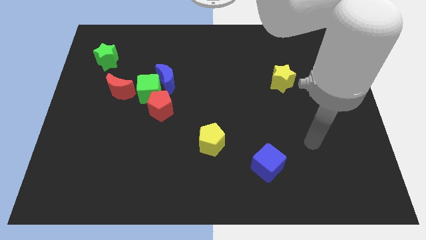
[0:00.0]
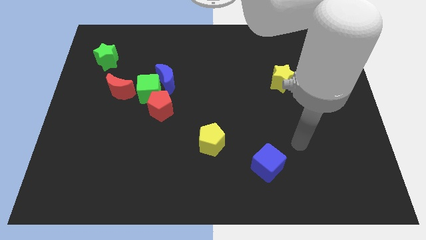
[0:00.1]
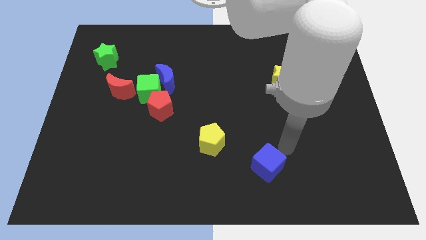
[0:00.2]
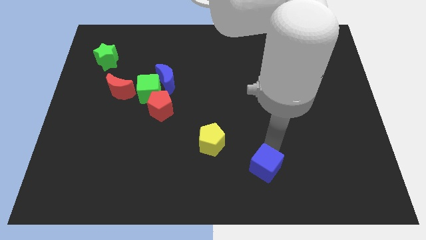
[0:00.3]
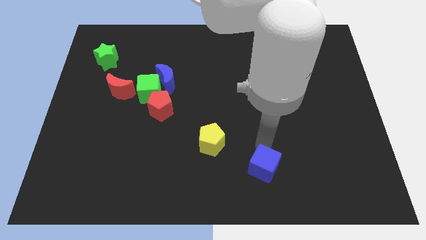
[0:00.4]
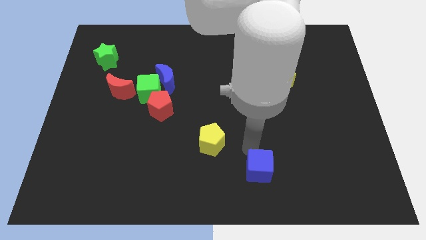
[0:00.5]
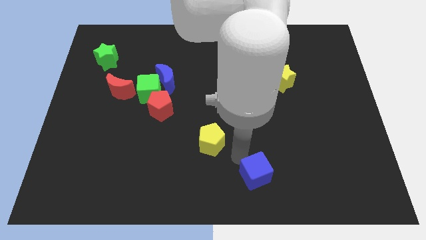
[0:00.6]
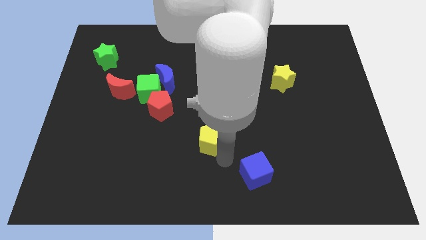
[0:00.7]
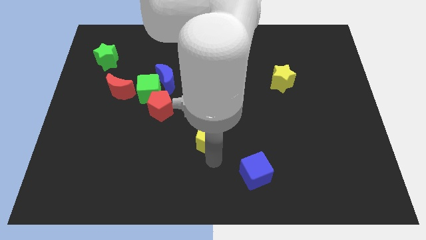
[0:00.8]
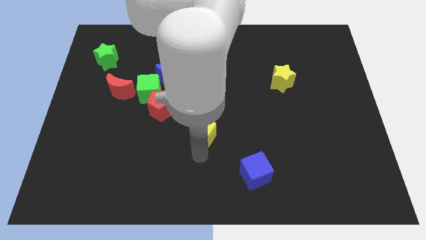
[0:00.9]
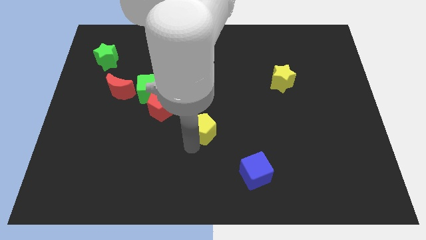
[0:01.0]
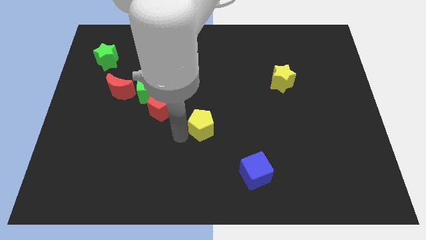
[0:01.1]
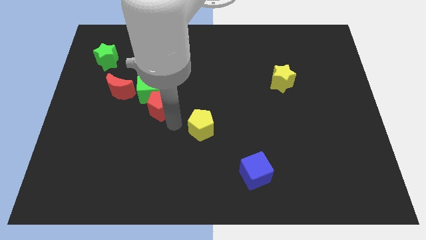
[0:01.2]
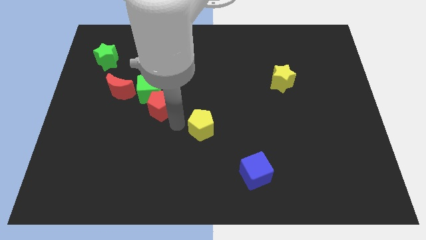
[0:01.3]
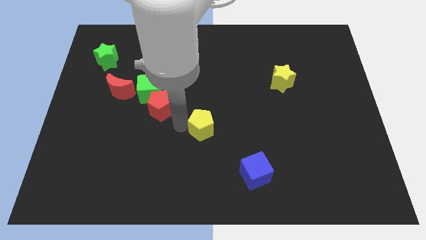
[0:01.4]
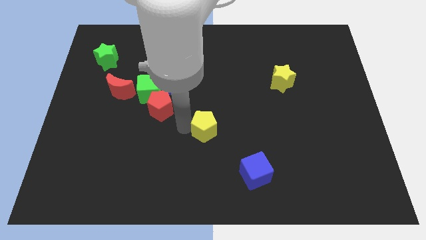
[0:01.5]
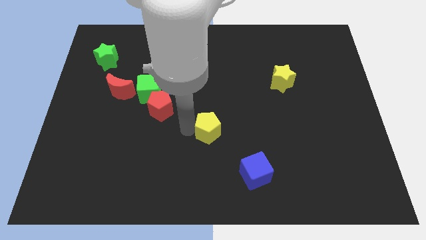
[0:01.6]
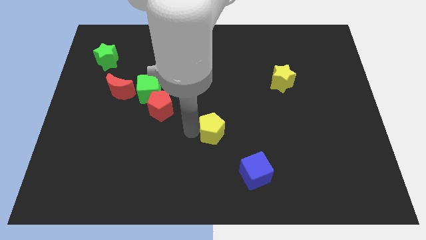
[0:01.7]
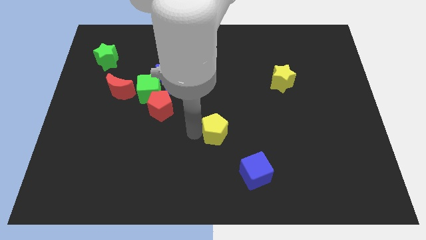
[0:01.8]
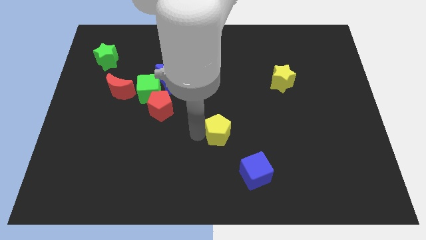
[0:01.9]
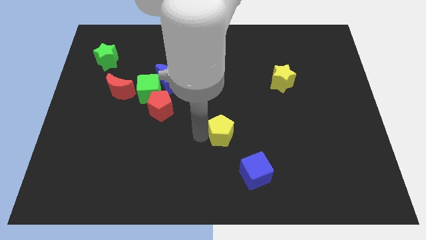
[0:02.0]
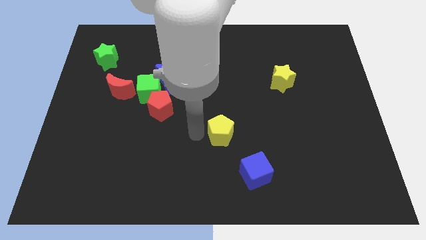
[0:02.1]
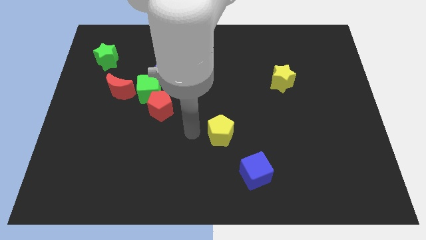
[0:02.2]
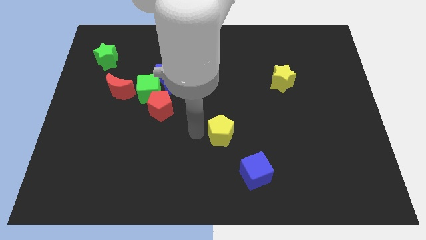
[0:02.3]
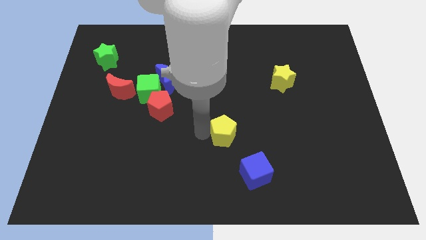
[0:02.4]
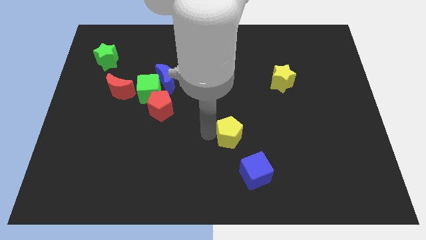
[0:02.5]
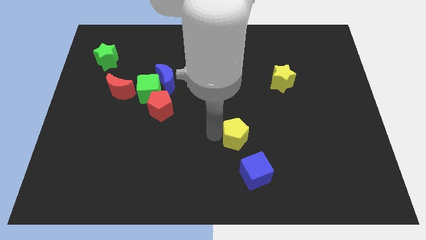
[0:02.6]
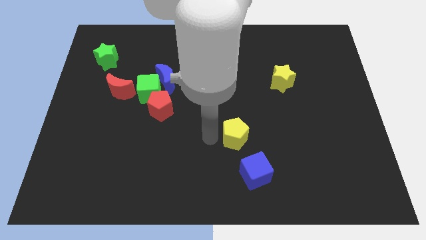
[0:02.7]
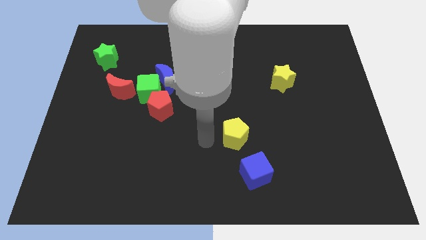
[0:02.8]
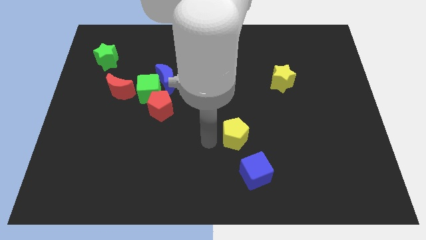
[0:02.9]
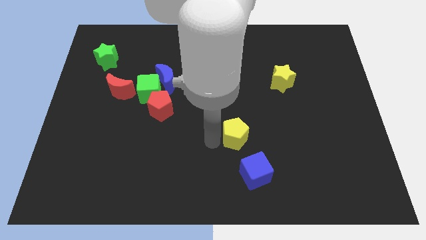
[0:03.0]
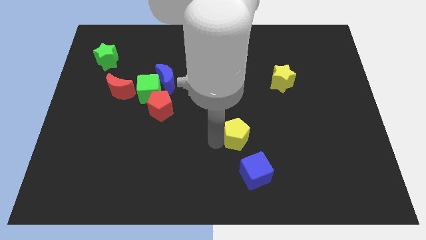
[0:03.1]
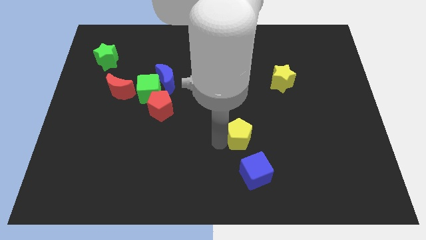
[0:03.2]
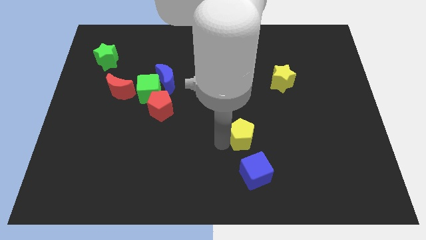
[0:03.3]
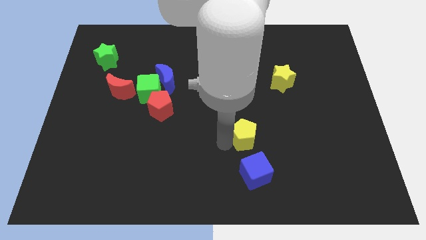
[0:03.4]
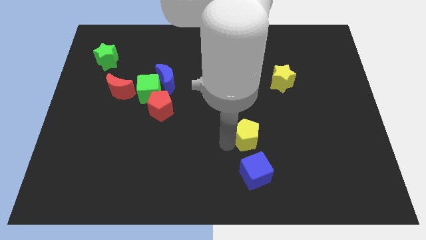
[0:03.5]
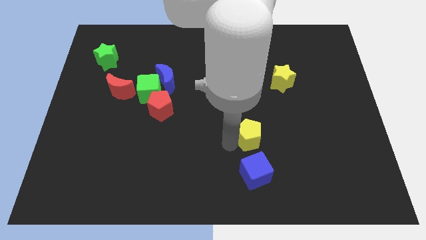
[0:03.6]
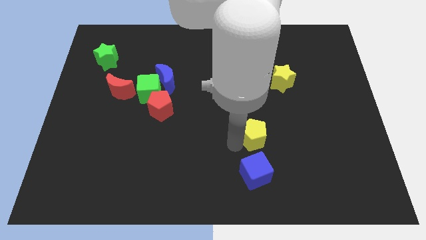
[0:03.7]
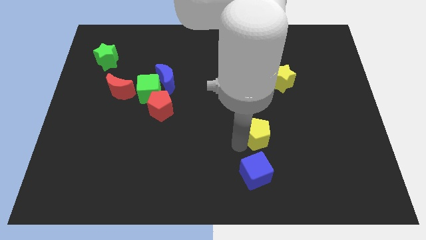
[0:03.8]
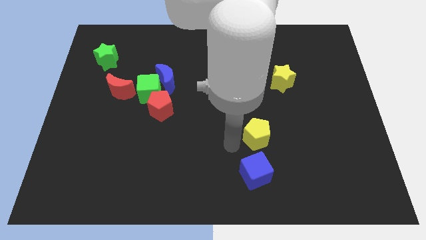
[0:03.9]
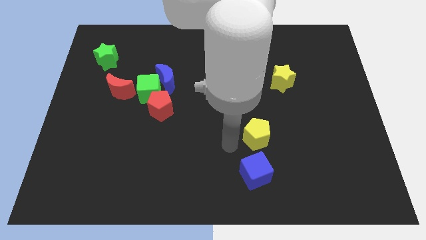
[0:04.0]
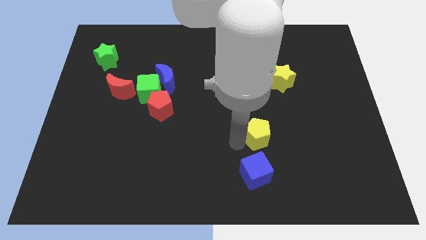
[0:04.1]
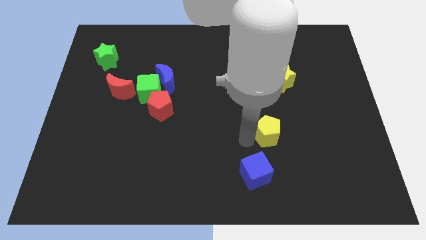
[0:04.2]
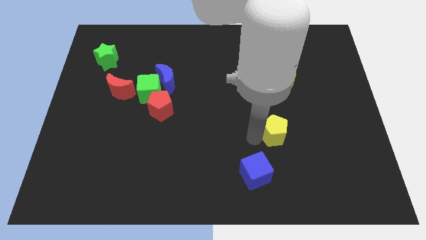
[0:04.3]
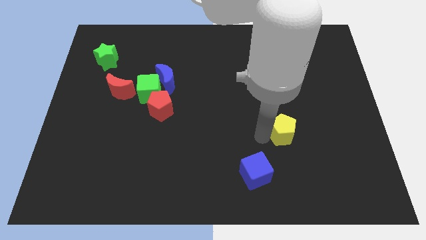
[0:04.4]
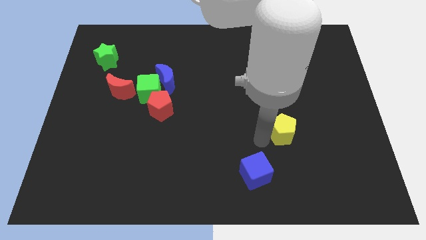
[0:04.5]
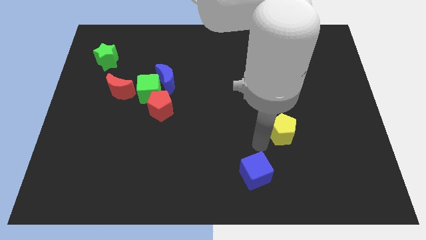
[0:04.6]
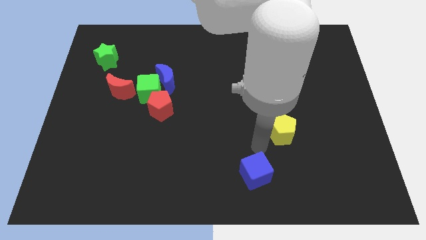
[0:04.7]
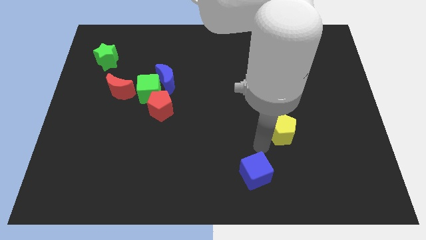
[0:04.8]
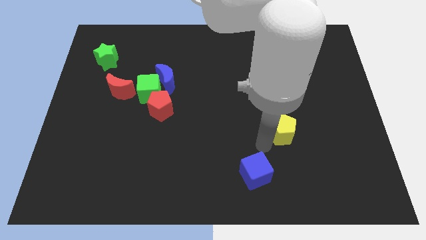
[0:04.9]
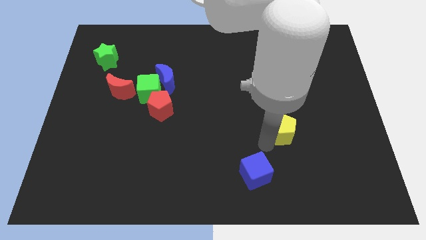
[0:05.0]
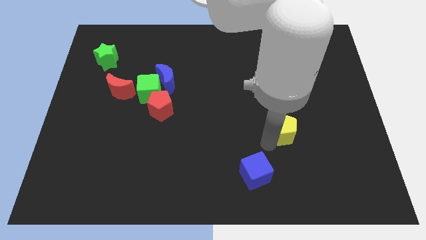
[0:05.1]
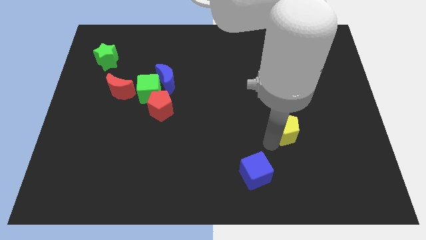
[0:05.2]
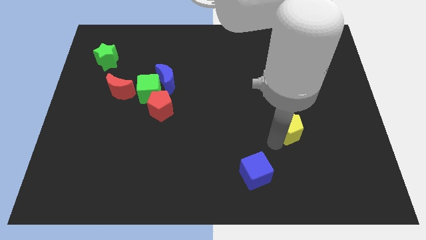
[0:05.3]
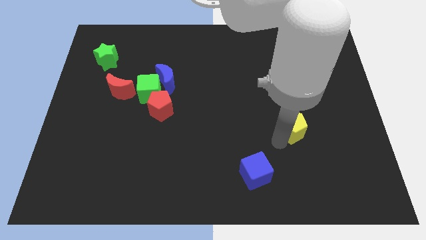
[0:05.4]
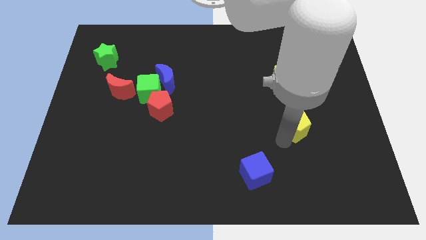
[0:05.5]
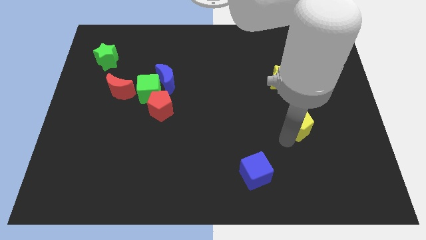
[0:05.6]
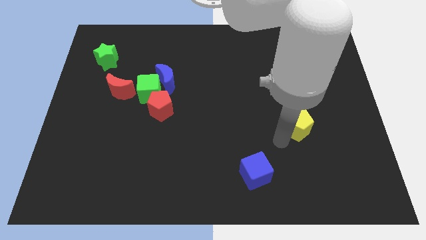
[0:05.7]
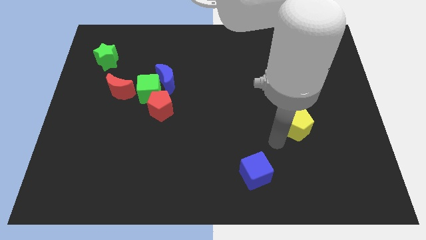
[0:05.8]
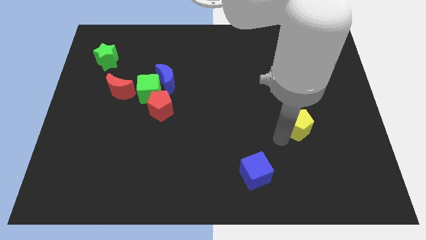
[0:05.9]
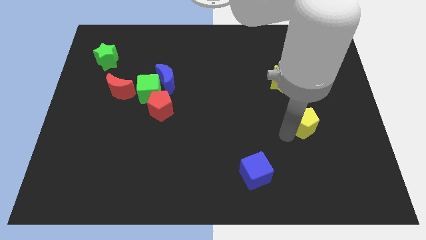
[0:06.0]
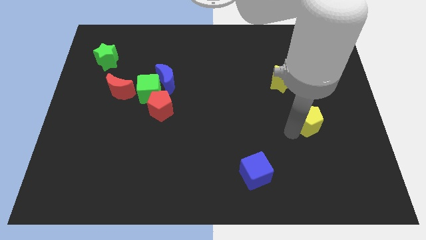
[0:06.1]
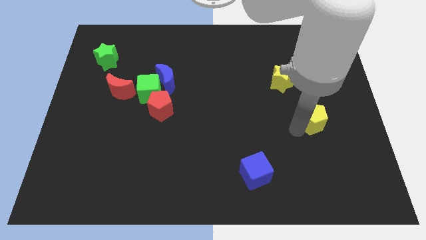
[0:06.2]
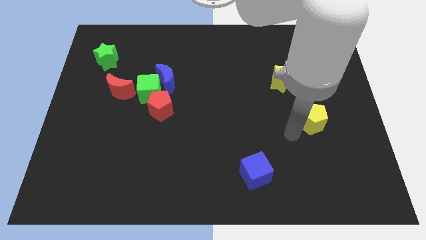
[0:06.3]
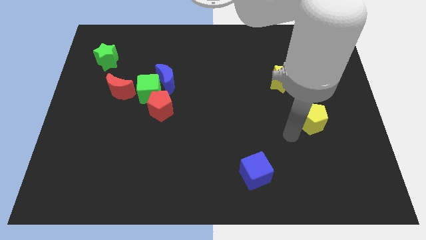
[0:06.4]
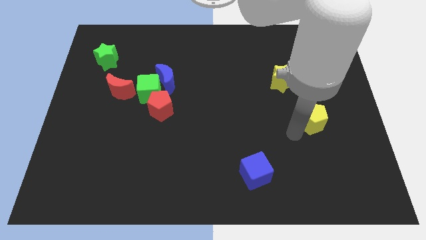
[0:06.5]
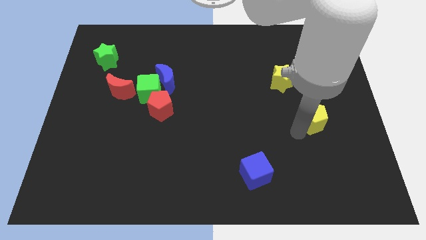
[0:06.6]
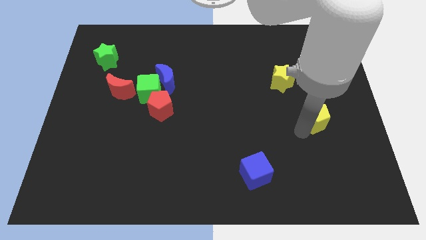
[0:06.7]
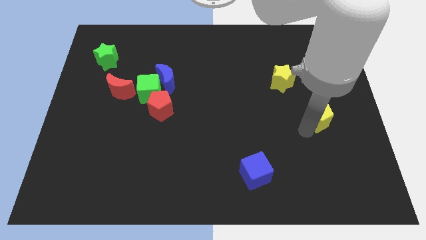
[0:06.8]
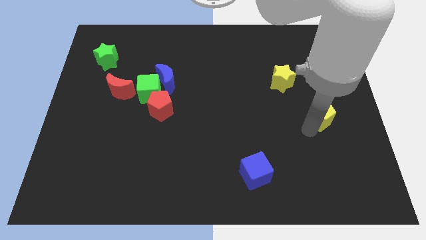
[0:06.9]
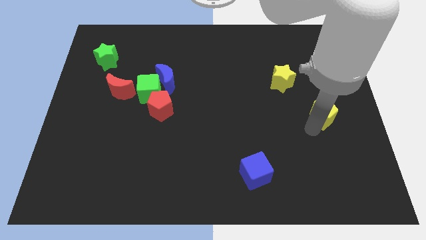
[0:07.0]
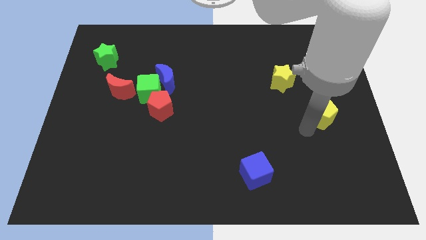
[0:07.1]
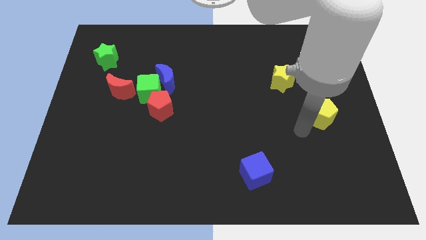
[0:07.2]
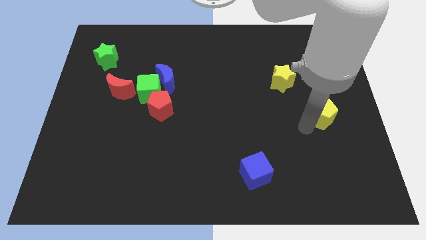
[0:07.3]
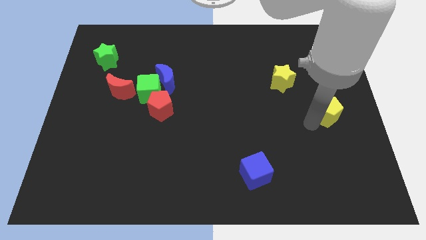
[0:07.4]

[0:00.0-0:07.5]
move the yellow pentagon to the right side of the board
